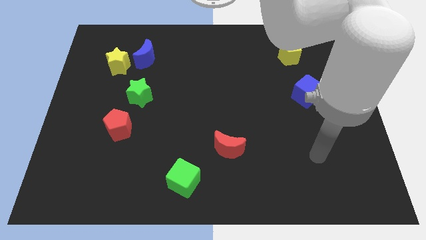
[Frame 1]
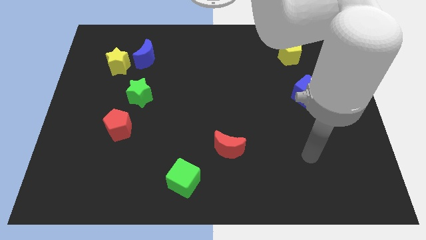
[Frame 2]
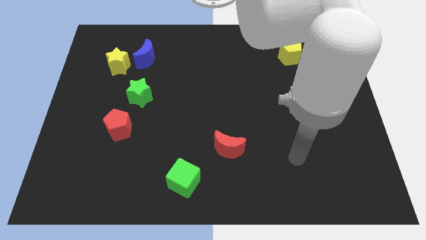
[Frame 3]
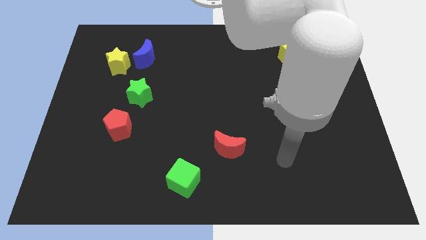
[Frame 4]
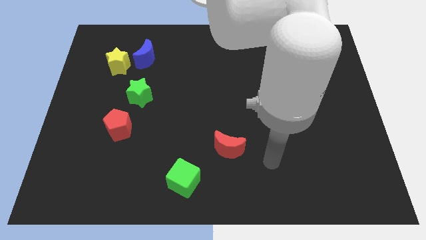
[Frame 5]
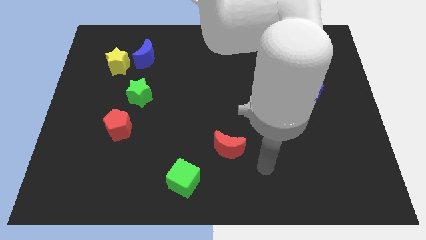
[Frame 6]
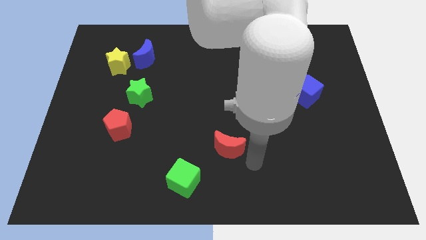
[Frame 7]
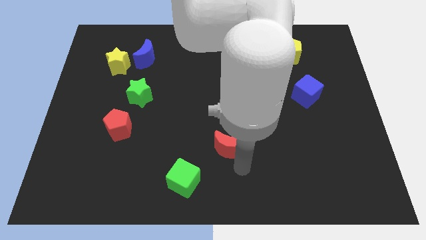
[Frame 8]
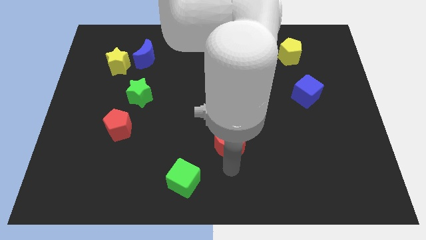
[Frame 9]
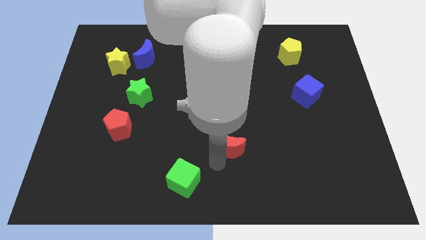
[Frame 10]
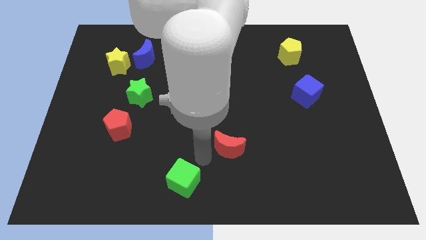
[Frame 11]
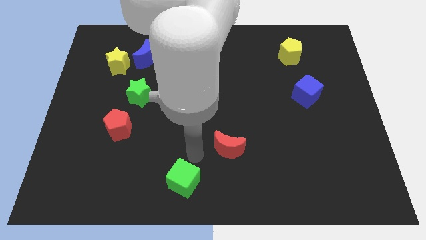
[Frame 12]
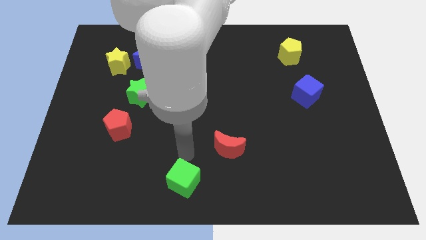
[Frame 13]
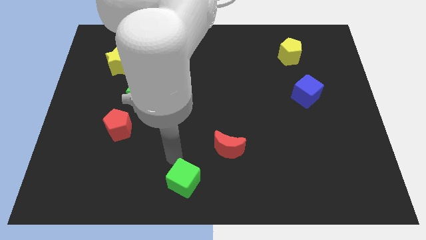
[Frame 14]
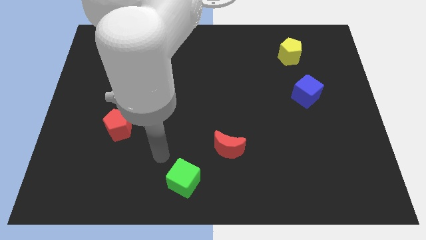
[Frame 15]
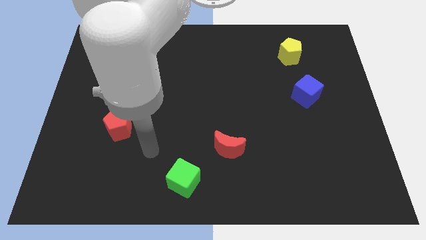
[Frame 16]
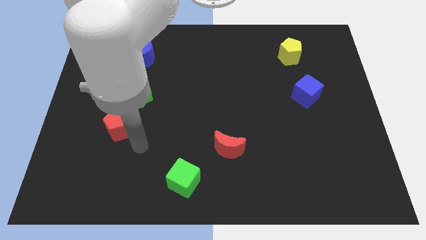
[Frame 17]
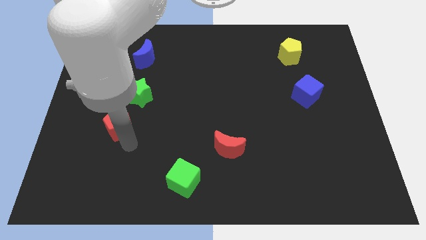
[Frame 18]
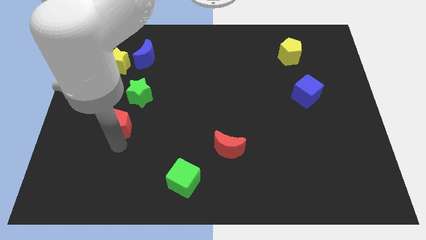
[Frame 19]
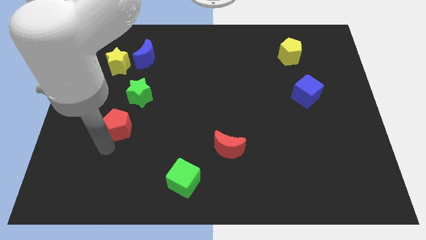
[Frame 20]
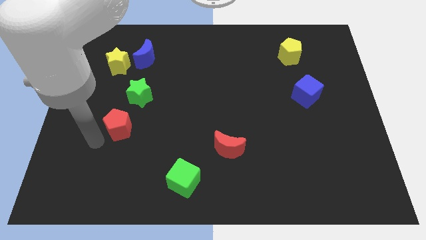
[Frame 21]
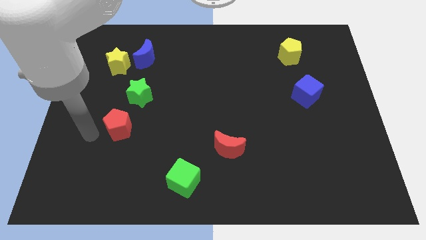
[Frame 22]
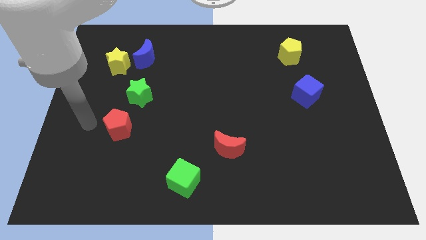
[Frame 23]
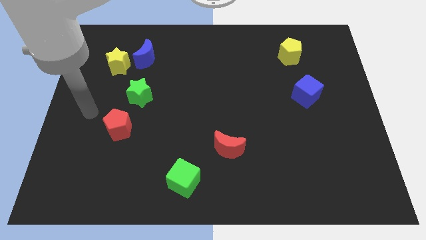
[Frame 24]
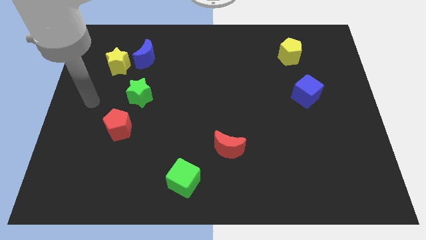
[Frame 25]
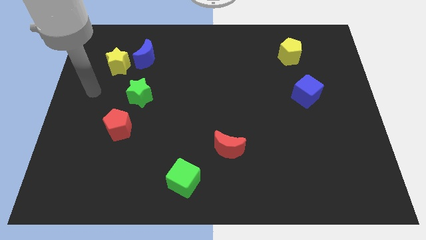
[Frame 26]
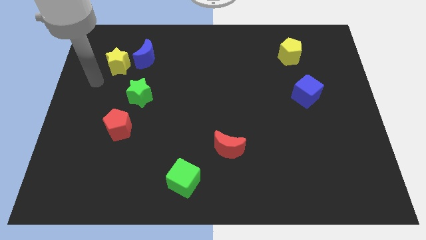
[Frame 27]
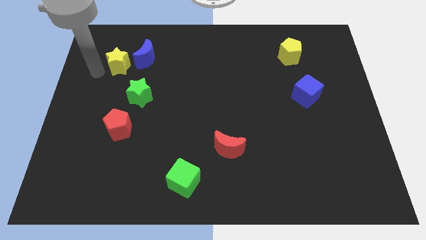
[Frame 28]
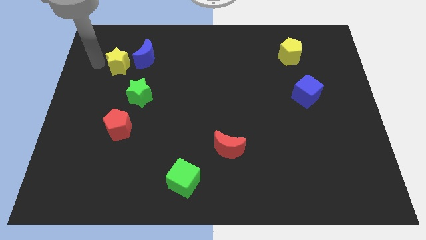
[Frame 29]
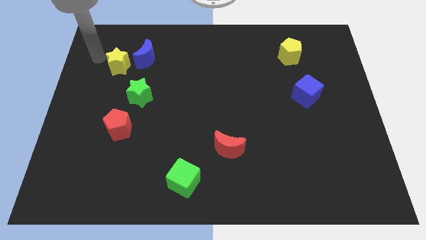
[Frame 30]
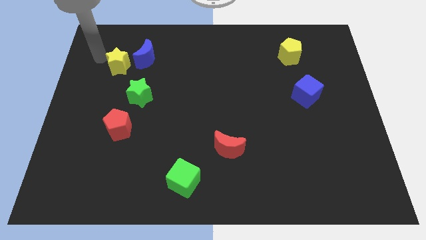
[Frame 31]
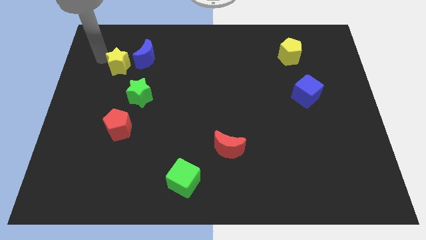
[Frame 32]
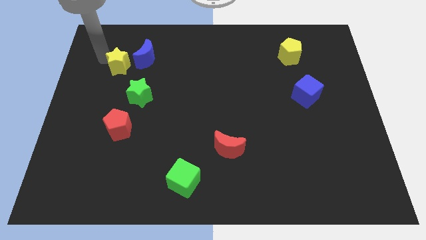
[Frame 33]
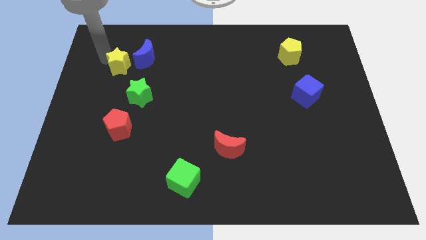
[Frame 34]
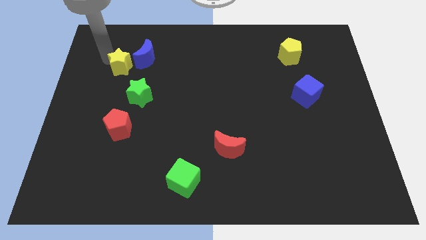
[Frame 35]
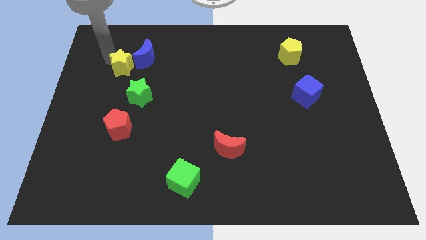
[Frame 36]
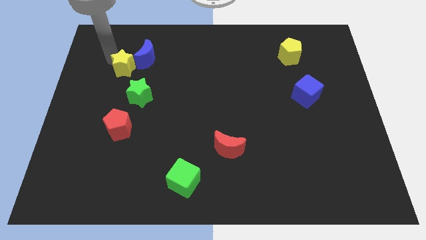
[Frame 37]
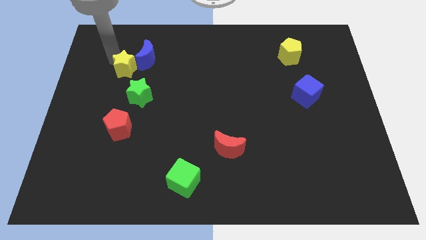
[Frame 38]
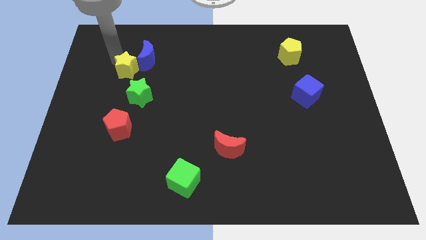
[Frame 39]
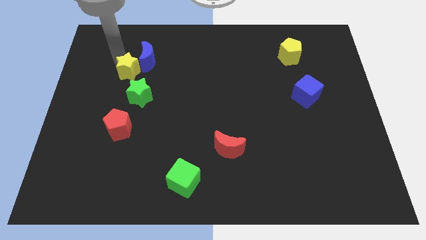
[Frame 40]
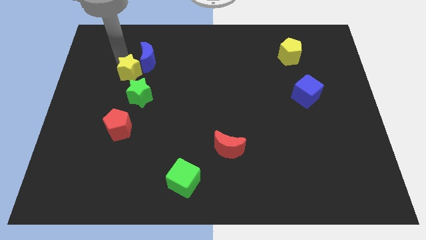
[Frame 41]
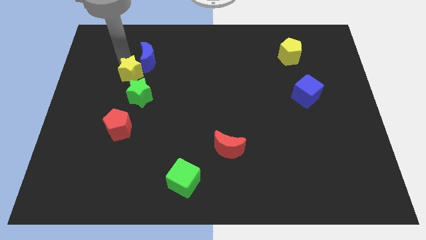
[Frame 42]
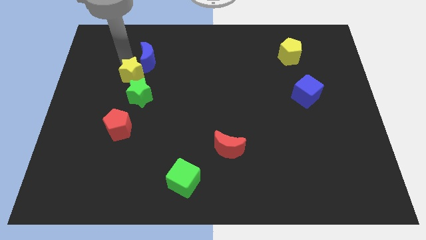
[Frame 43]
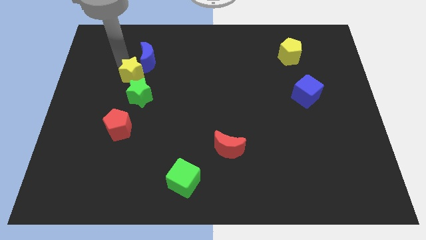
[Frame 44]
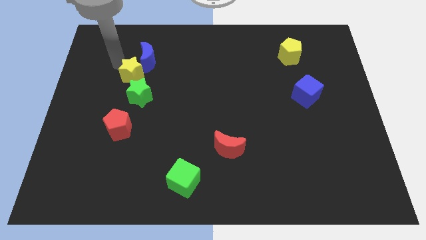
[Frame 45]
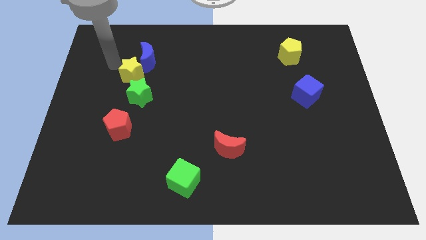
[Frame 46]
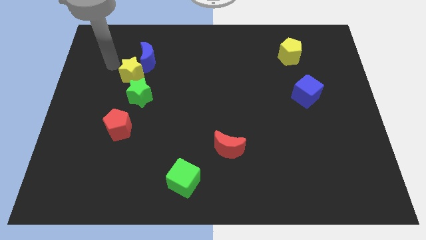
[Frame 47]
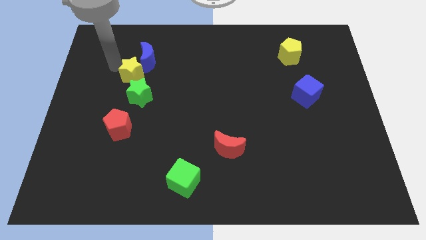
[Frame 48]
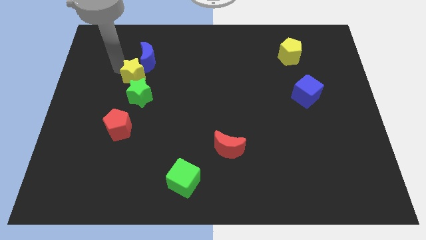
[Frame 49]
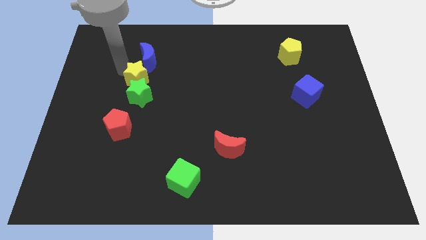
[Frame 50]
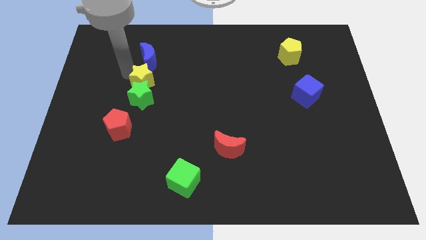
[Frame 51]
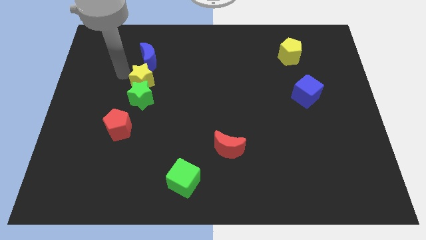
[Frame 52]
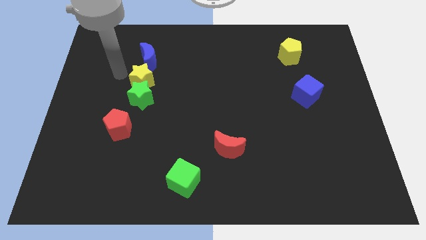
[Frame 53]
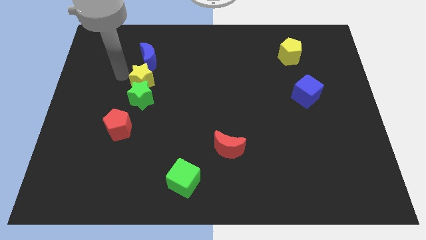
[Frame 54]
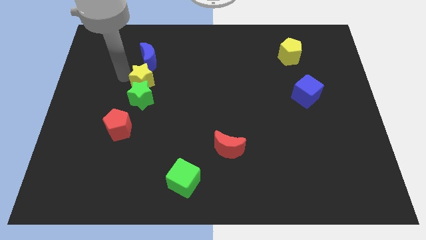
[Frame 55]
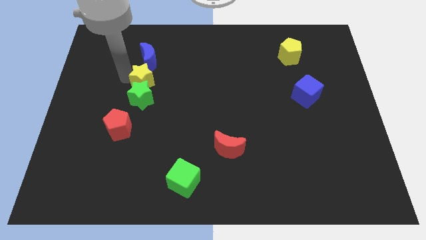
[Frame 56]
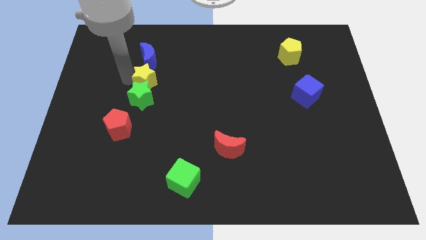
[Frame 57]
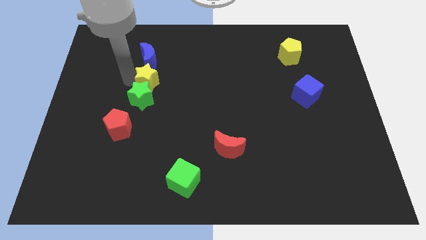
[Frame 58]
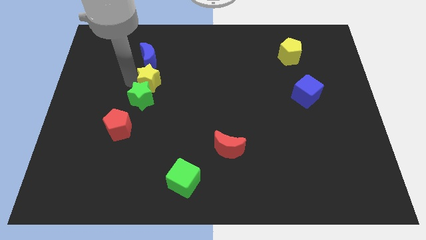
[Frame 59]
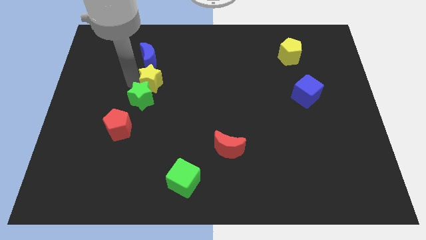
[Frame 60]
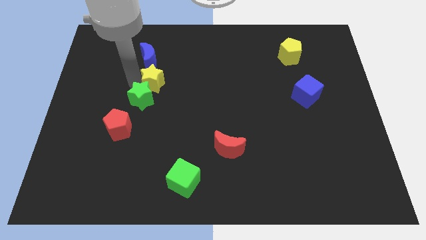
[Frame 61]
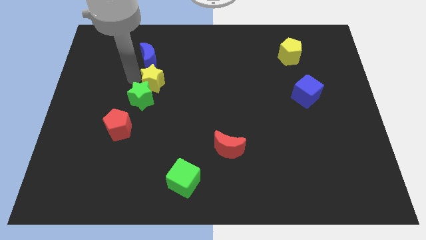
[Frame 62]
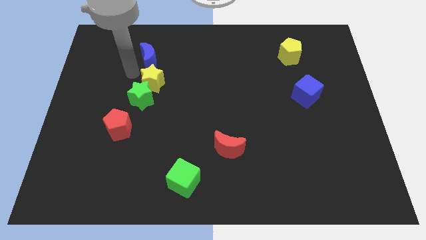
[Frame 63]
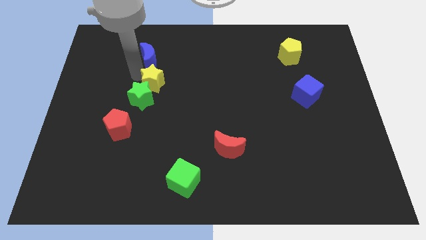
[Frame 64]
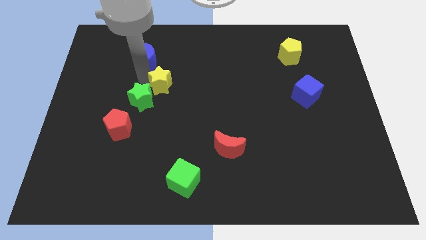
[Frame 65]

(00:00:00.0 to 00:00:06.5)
move the yellow star right of the green star

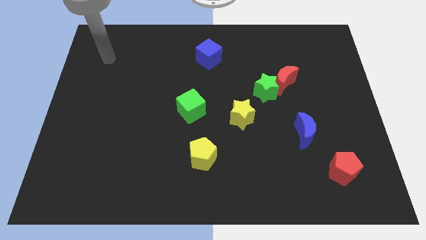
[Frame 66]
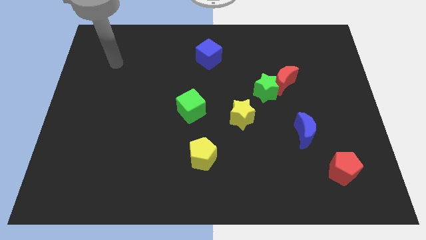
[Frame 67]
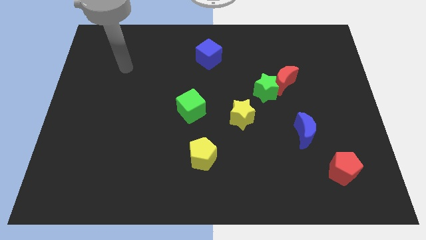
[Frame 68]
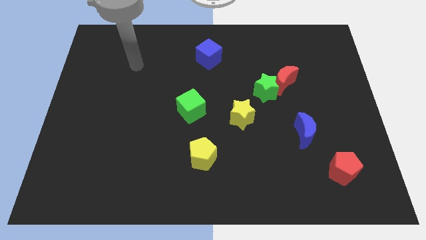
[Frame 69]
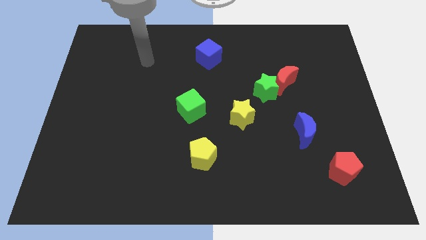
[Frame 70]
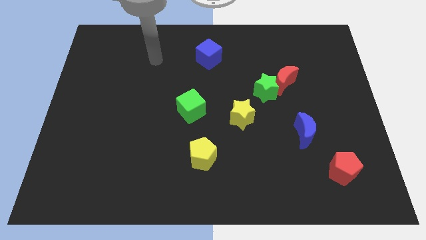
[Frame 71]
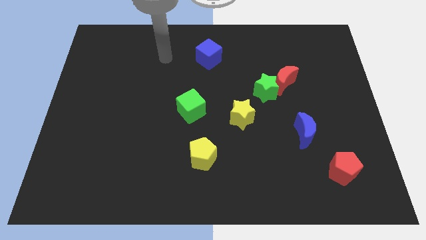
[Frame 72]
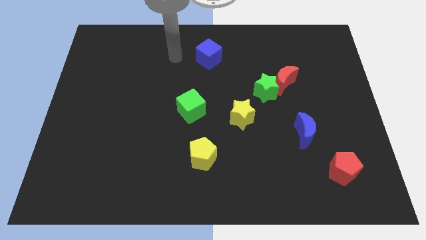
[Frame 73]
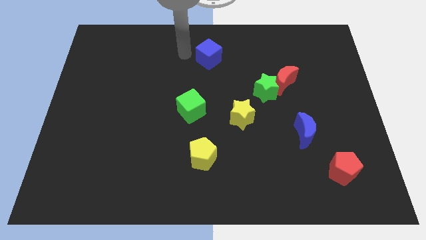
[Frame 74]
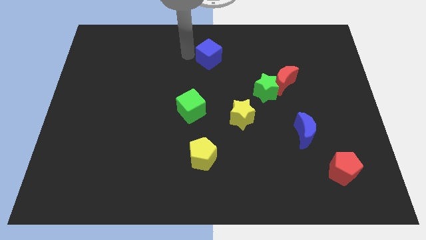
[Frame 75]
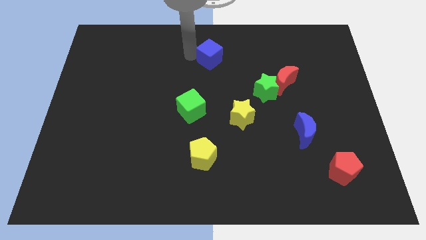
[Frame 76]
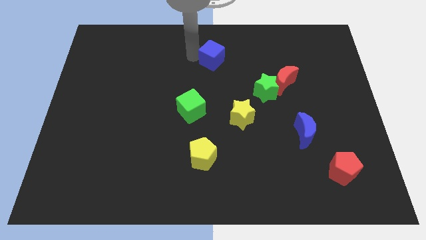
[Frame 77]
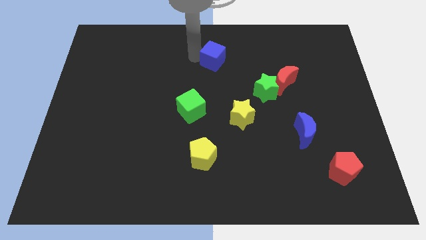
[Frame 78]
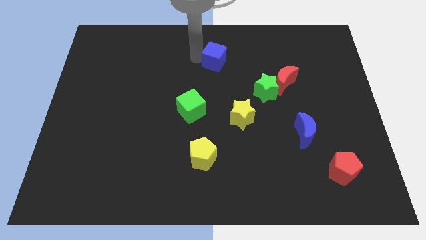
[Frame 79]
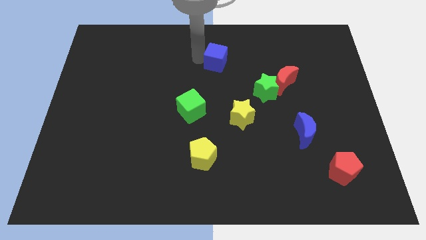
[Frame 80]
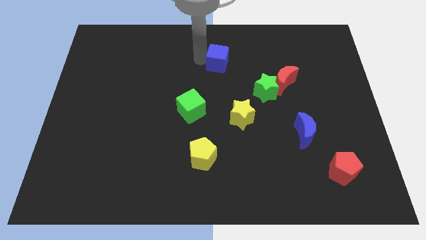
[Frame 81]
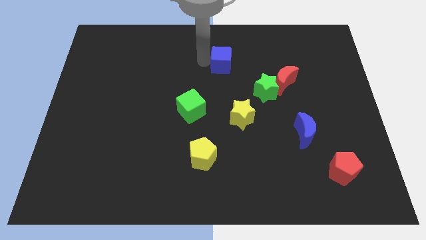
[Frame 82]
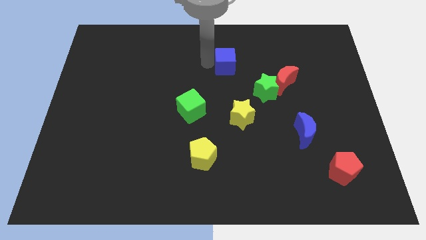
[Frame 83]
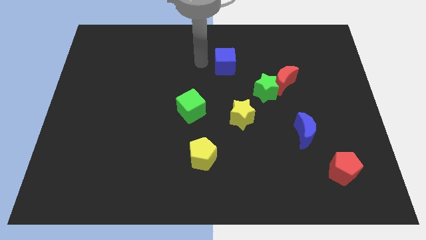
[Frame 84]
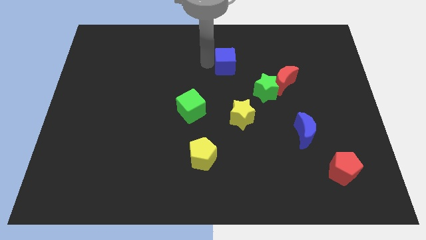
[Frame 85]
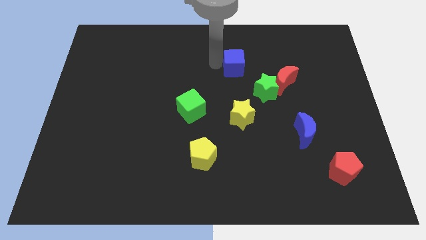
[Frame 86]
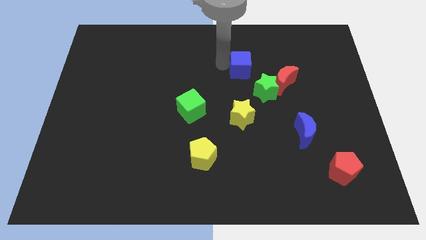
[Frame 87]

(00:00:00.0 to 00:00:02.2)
put the blue cube diagonally up and to the left of the red moon
